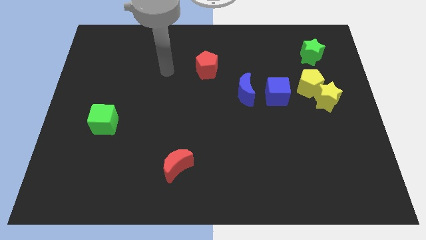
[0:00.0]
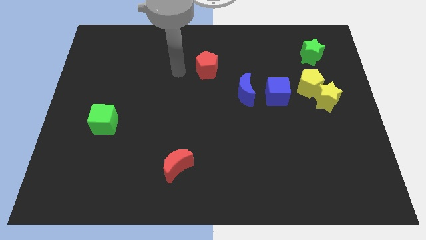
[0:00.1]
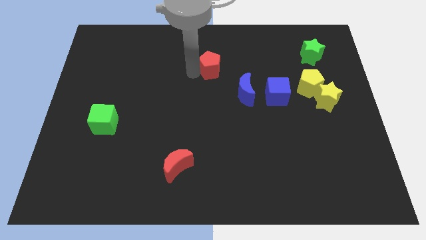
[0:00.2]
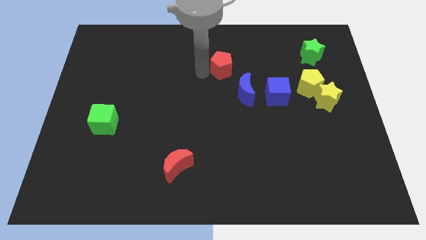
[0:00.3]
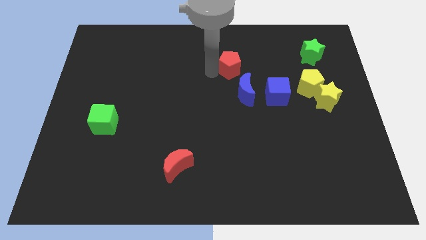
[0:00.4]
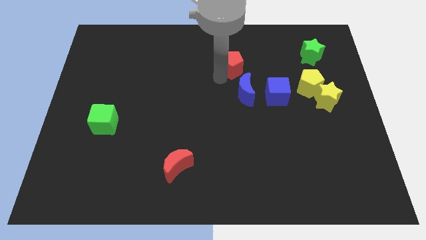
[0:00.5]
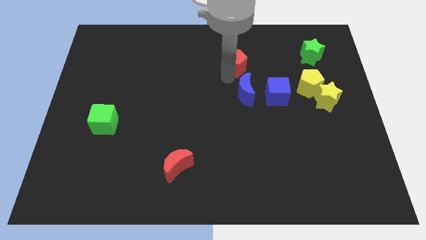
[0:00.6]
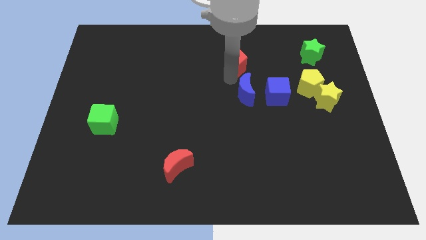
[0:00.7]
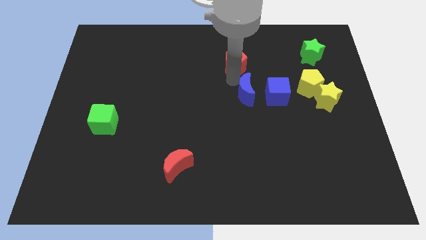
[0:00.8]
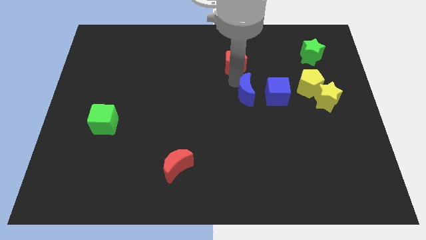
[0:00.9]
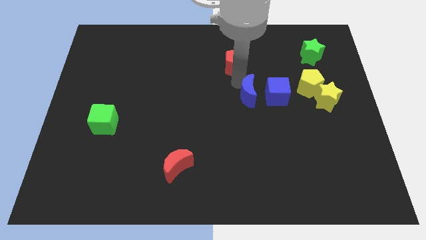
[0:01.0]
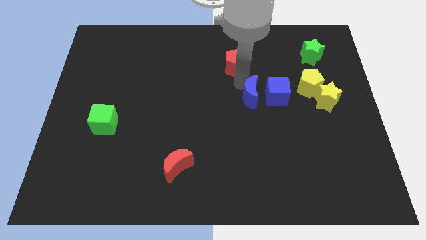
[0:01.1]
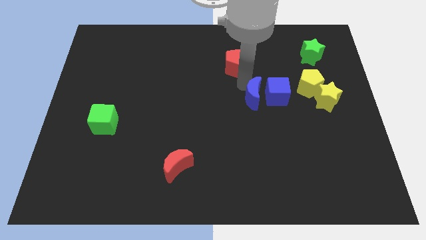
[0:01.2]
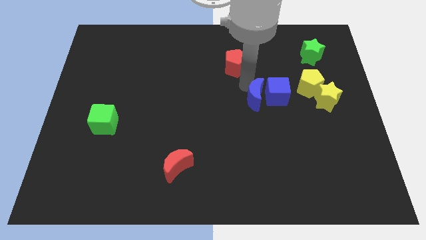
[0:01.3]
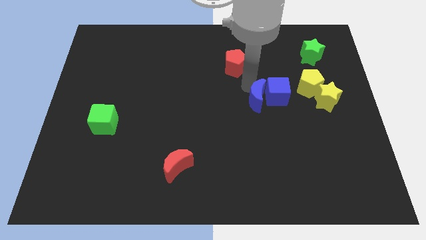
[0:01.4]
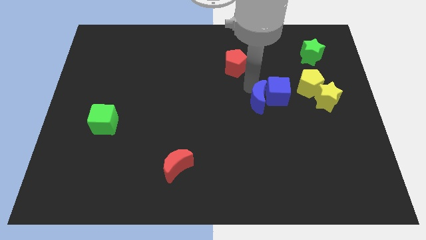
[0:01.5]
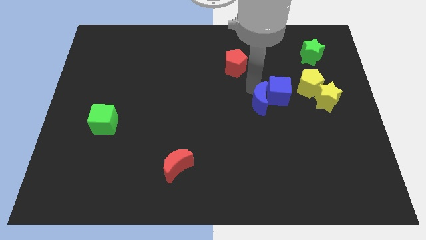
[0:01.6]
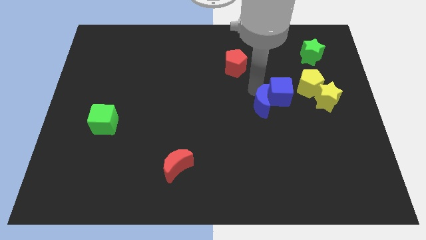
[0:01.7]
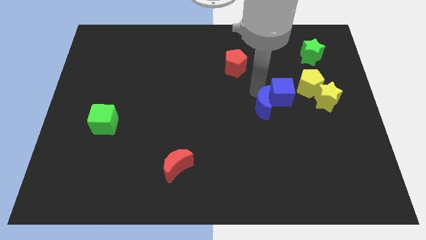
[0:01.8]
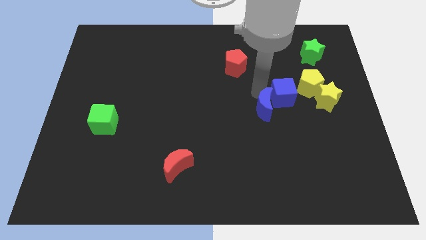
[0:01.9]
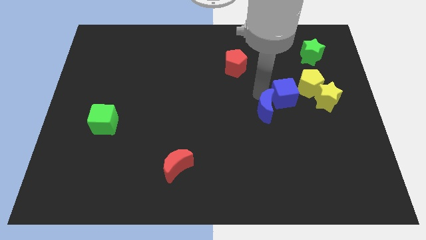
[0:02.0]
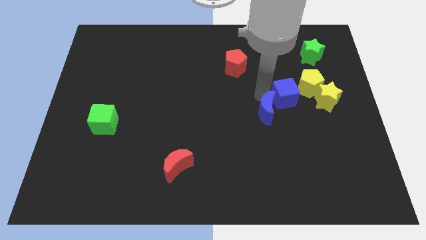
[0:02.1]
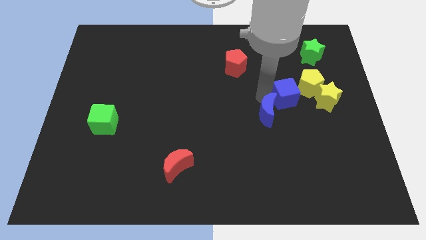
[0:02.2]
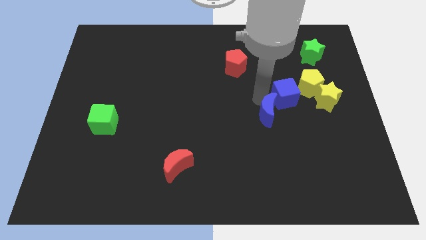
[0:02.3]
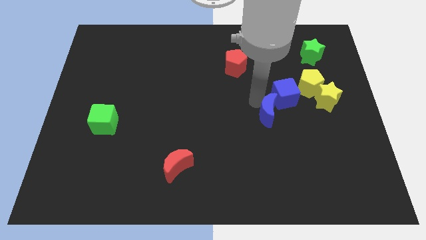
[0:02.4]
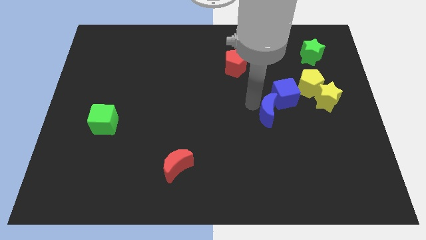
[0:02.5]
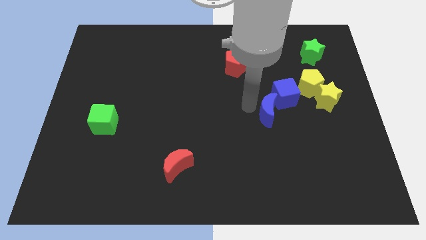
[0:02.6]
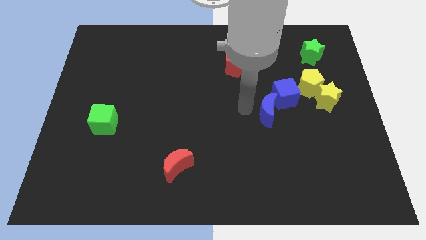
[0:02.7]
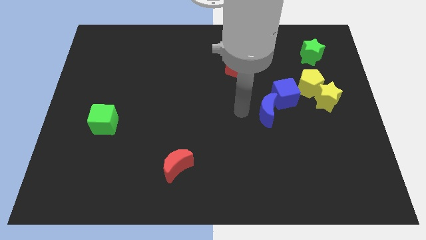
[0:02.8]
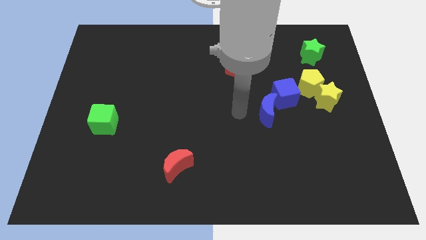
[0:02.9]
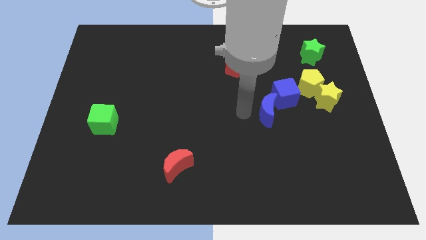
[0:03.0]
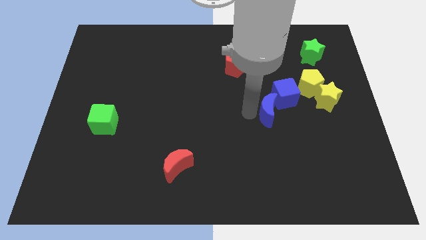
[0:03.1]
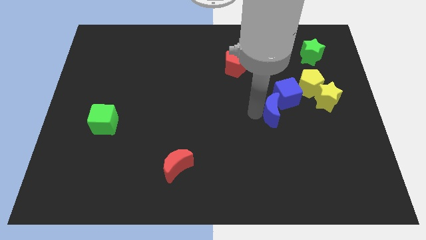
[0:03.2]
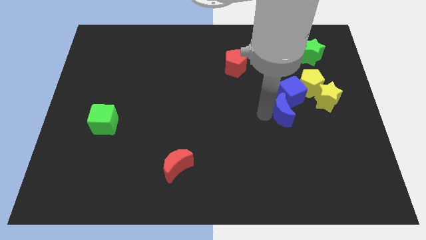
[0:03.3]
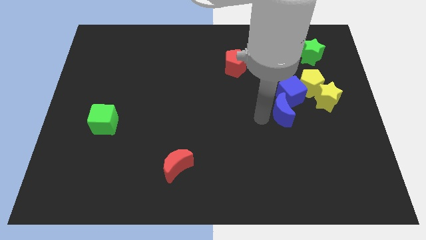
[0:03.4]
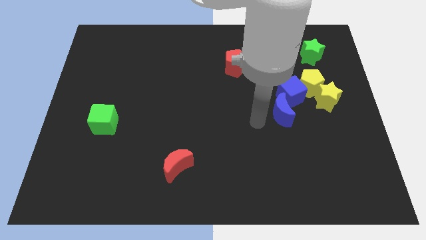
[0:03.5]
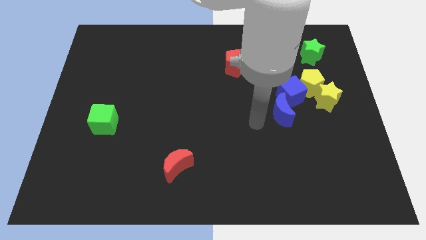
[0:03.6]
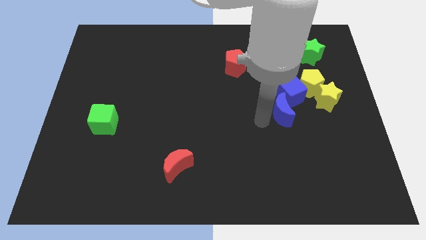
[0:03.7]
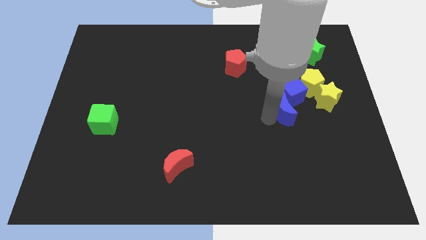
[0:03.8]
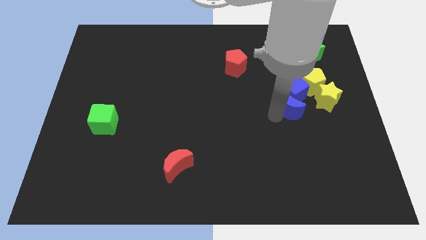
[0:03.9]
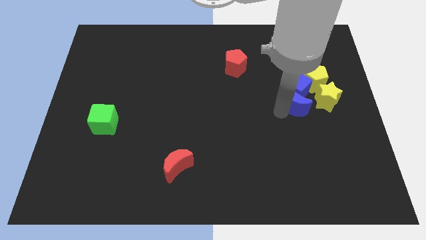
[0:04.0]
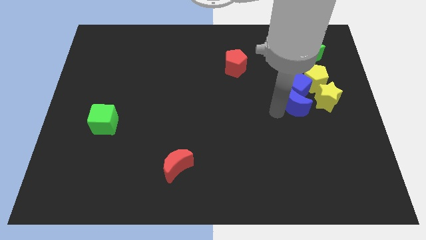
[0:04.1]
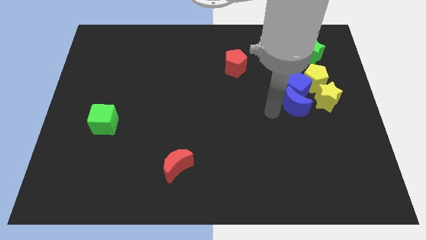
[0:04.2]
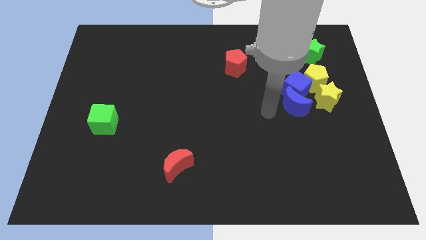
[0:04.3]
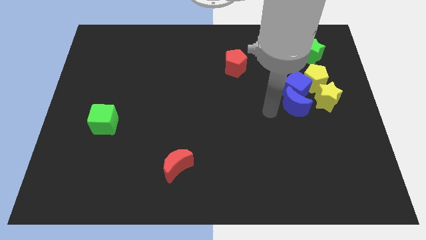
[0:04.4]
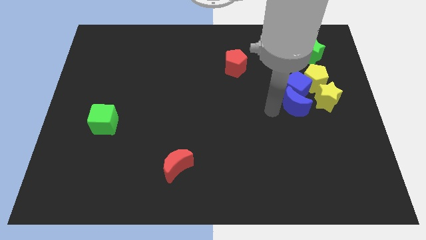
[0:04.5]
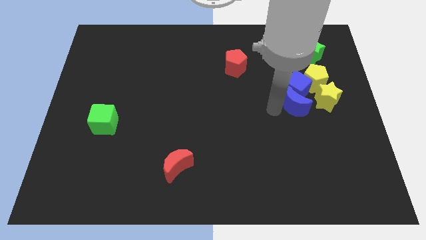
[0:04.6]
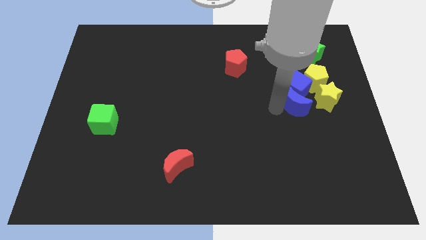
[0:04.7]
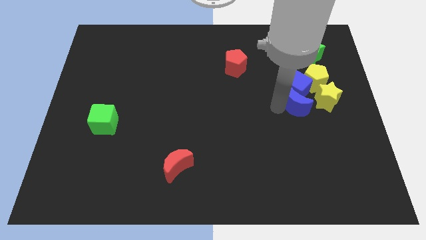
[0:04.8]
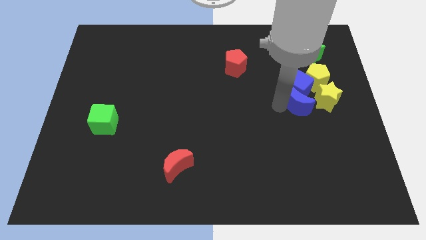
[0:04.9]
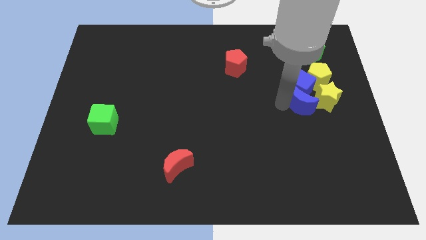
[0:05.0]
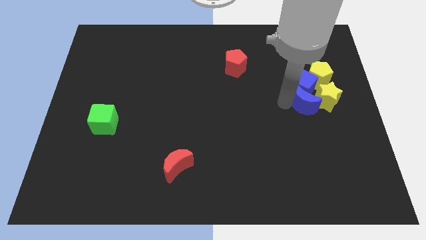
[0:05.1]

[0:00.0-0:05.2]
put the blue moon close to the yellow star

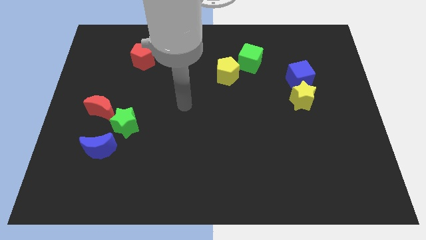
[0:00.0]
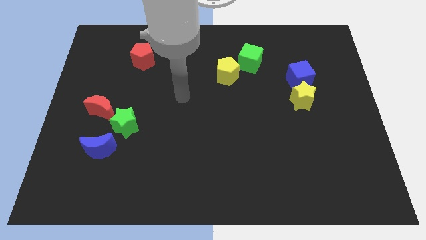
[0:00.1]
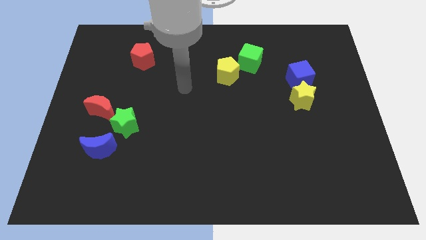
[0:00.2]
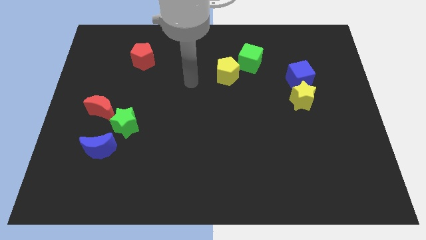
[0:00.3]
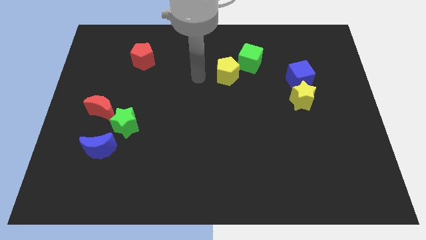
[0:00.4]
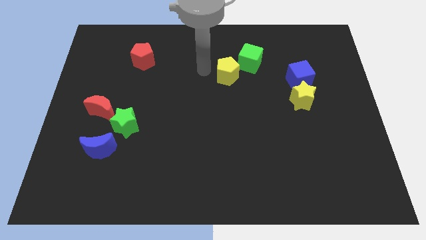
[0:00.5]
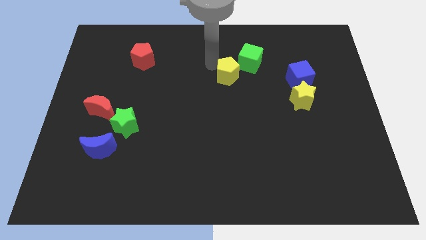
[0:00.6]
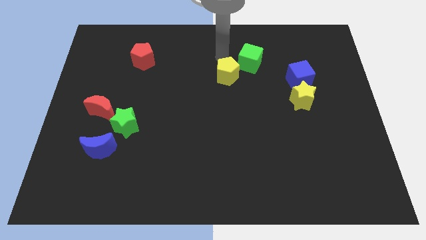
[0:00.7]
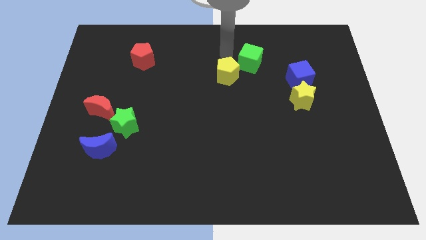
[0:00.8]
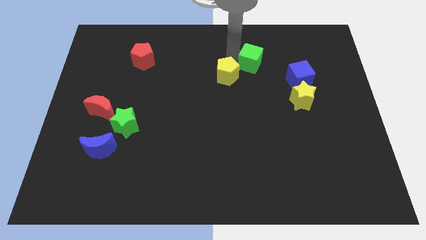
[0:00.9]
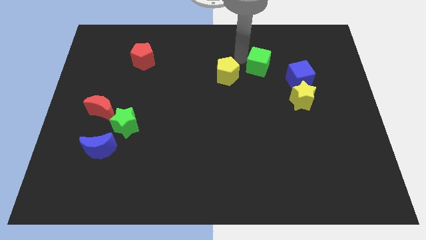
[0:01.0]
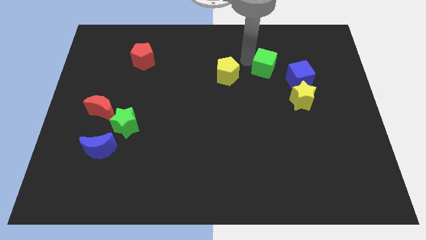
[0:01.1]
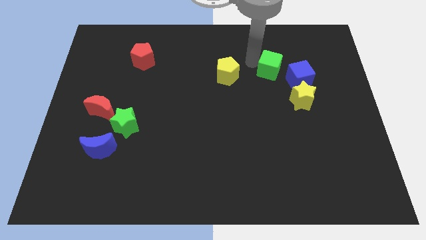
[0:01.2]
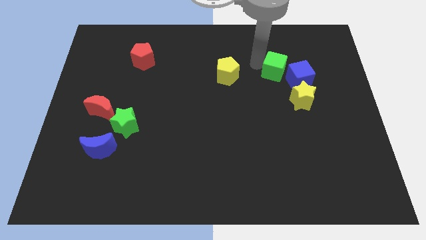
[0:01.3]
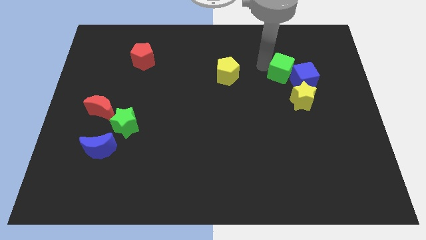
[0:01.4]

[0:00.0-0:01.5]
slide the green cube to the blue cube

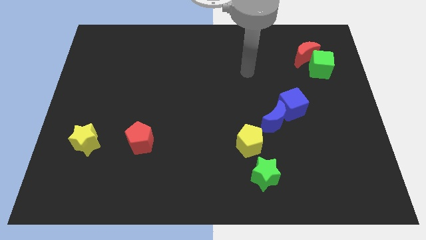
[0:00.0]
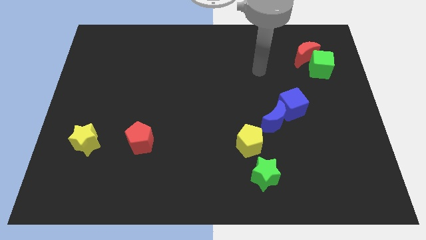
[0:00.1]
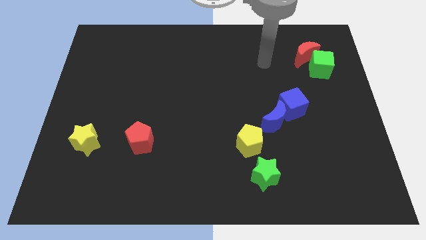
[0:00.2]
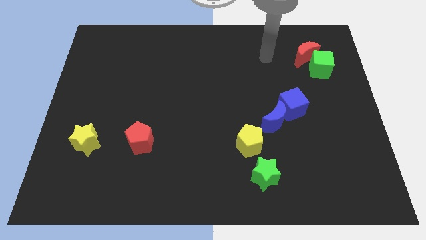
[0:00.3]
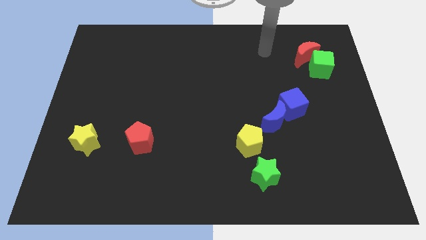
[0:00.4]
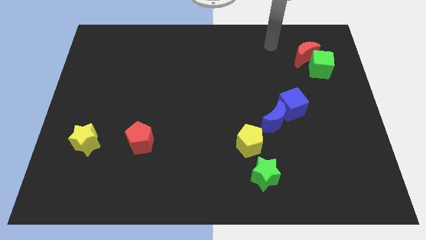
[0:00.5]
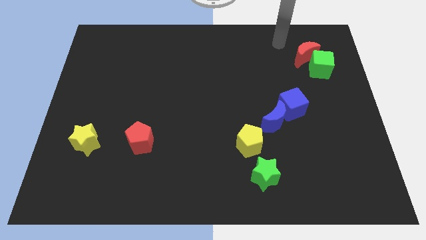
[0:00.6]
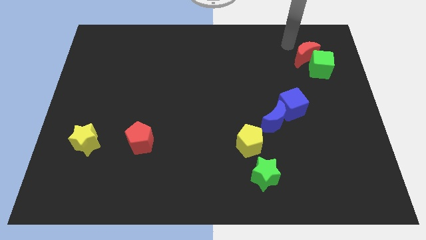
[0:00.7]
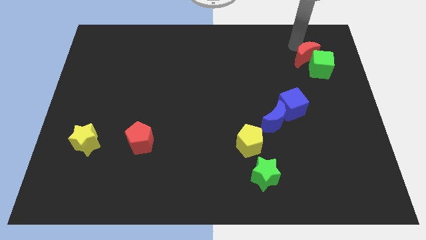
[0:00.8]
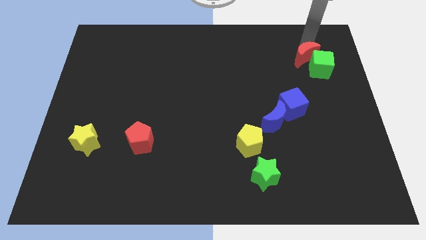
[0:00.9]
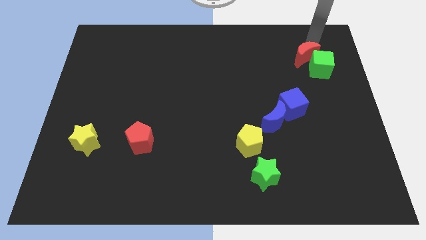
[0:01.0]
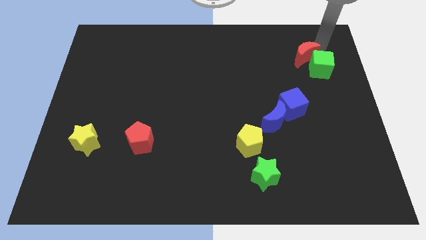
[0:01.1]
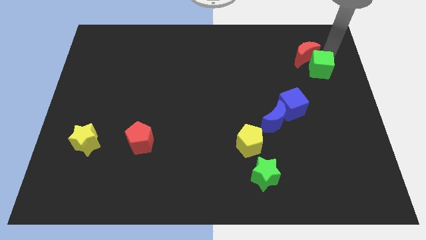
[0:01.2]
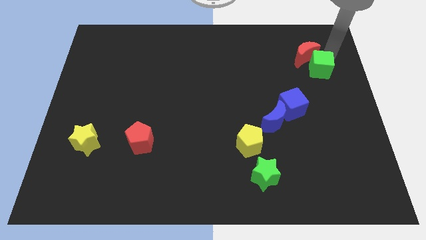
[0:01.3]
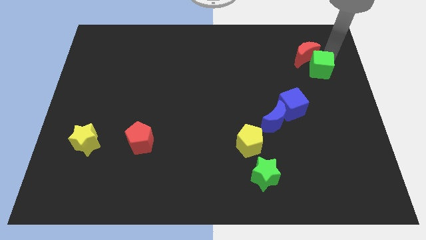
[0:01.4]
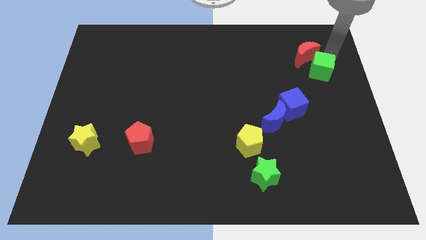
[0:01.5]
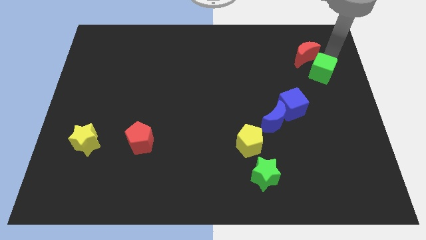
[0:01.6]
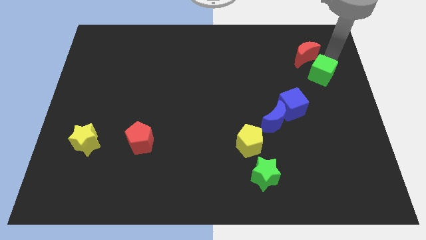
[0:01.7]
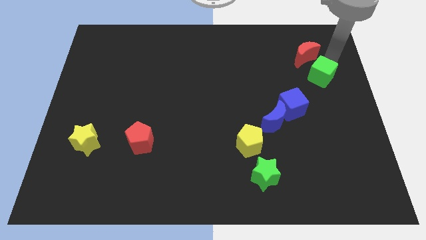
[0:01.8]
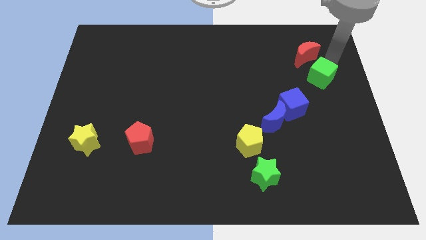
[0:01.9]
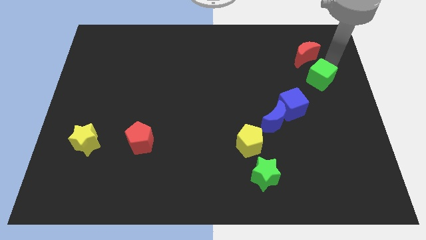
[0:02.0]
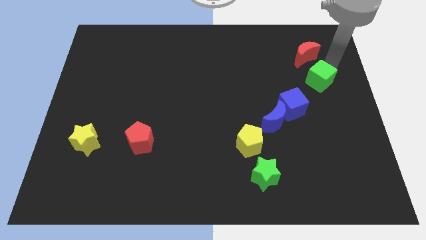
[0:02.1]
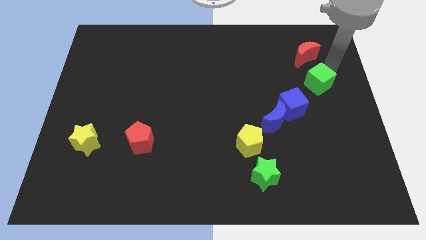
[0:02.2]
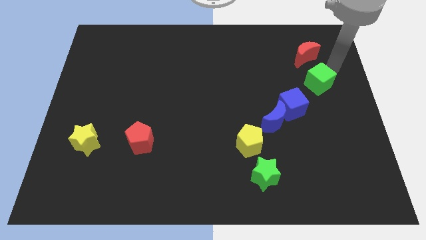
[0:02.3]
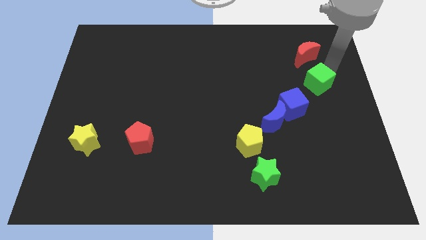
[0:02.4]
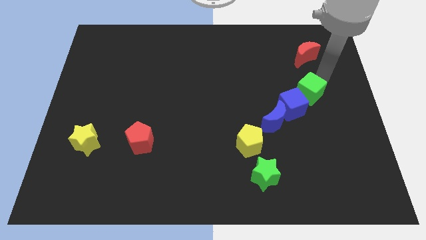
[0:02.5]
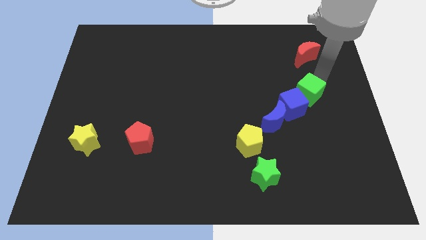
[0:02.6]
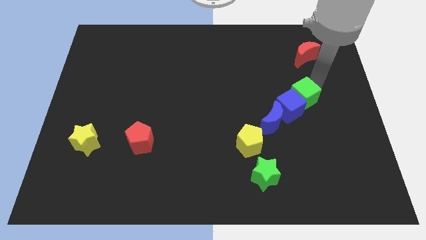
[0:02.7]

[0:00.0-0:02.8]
slide the green cube next to the blue cube
